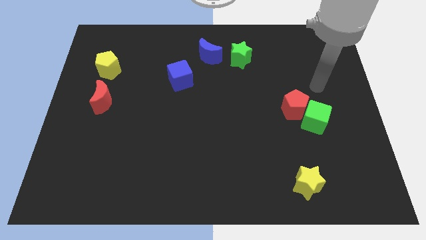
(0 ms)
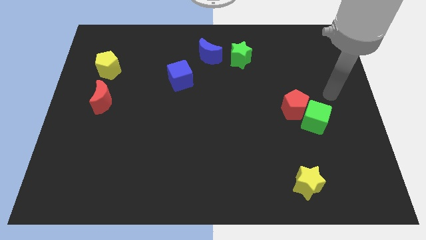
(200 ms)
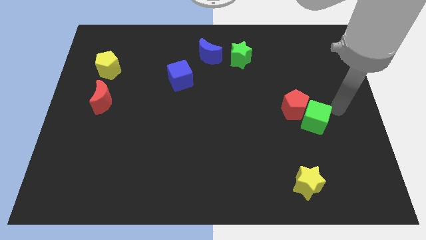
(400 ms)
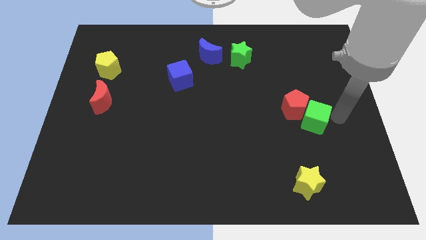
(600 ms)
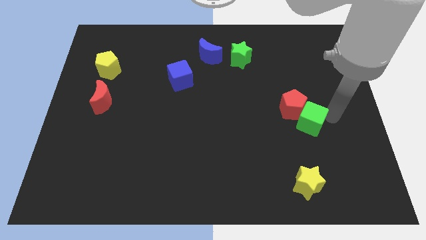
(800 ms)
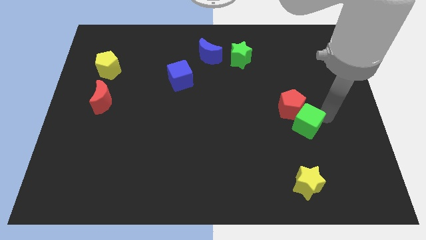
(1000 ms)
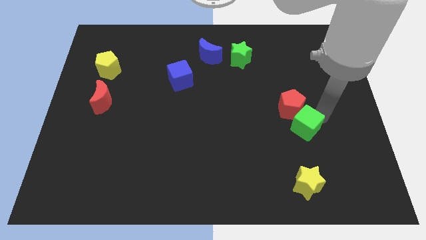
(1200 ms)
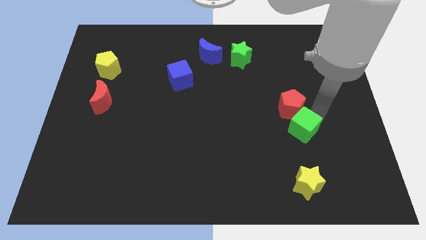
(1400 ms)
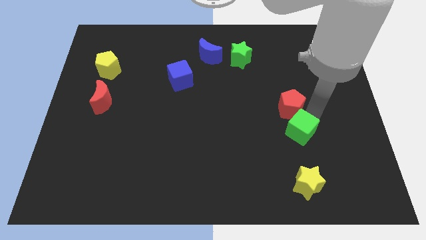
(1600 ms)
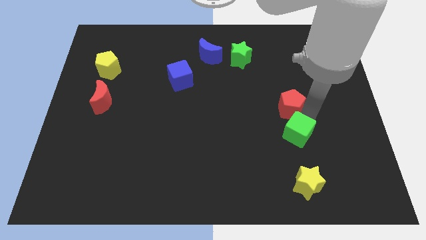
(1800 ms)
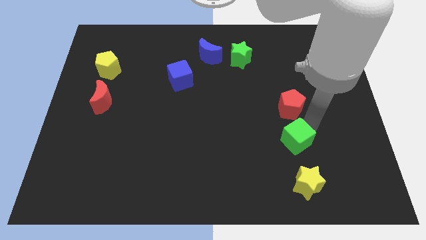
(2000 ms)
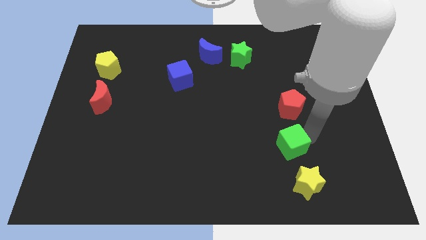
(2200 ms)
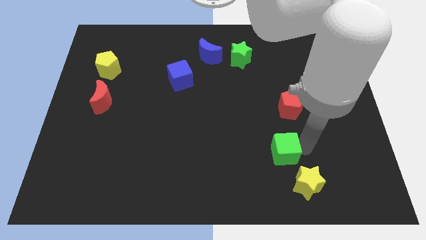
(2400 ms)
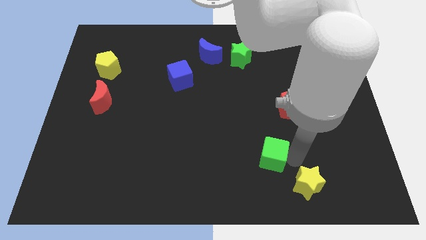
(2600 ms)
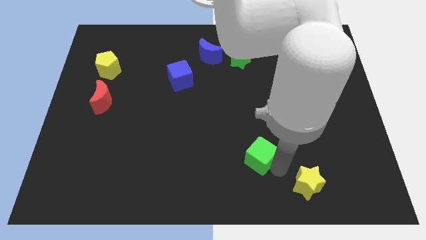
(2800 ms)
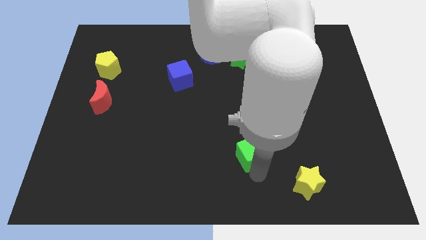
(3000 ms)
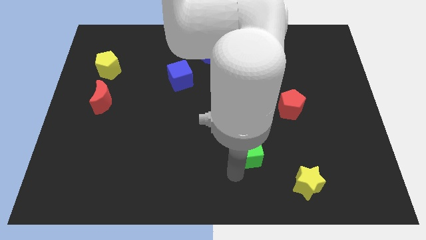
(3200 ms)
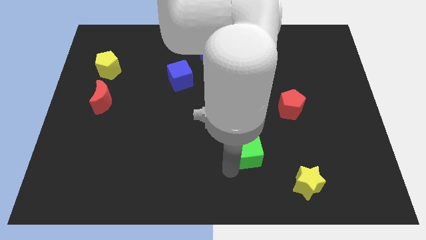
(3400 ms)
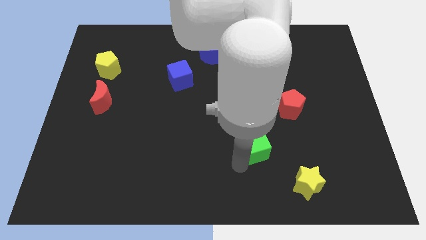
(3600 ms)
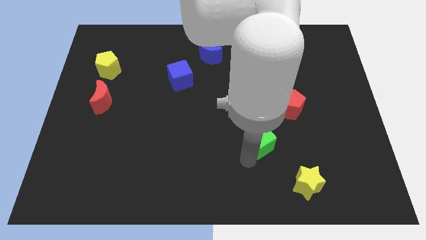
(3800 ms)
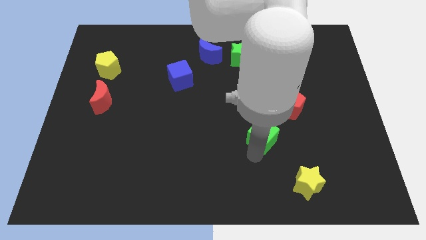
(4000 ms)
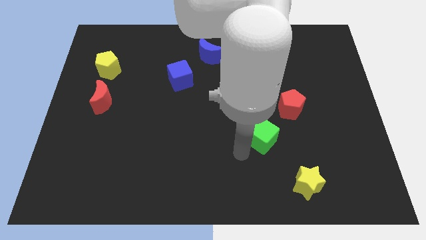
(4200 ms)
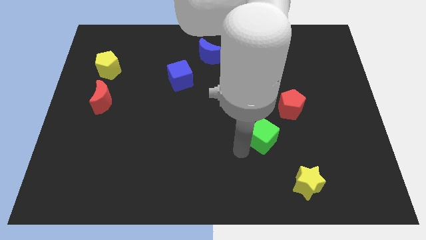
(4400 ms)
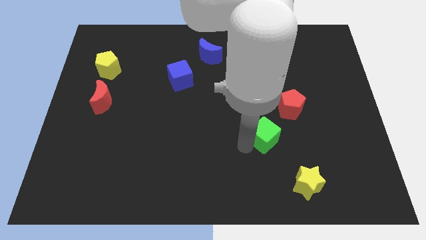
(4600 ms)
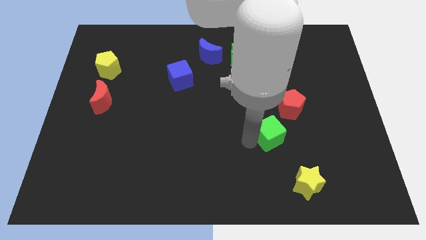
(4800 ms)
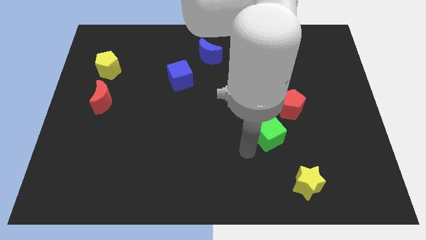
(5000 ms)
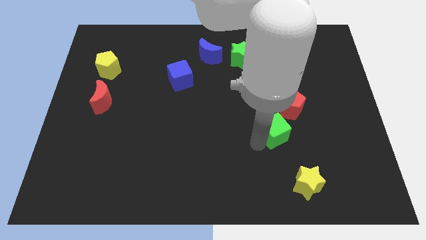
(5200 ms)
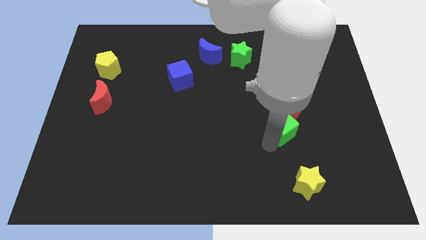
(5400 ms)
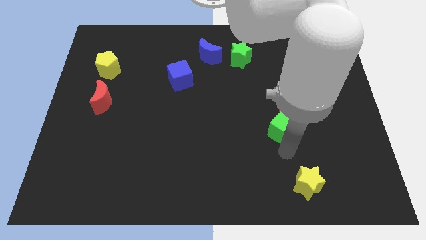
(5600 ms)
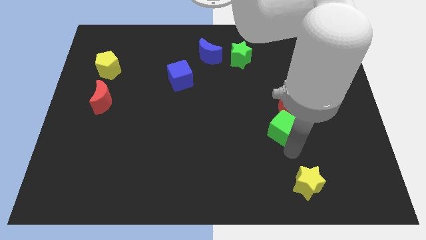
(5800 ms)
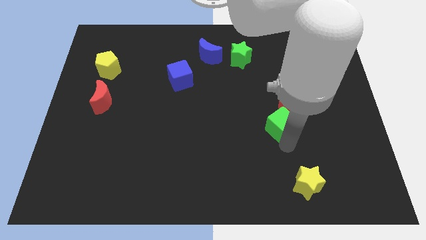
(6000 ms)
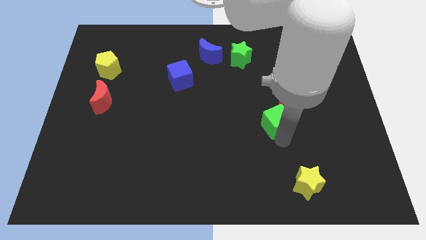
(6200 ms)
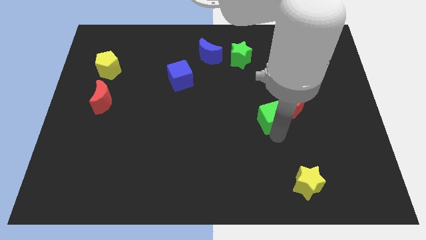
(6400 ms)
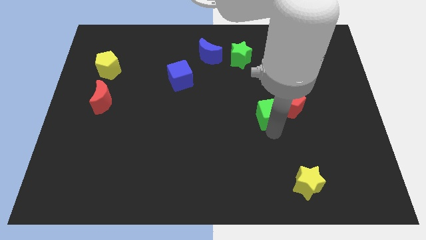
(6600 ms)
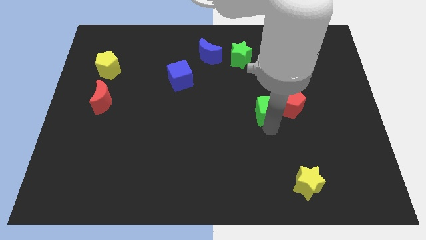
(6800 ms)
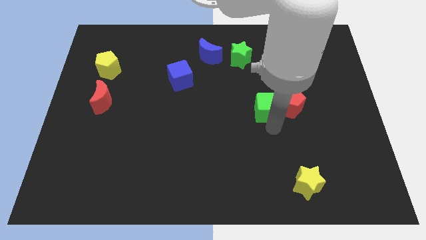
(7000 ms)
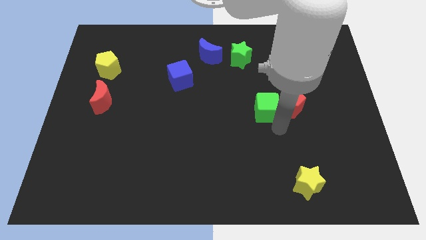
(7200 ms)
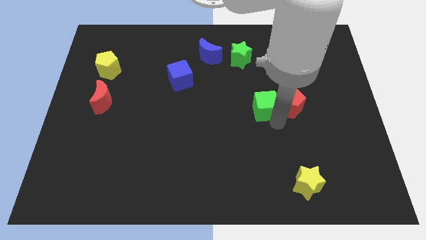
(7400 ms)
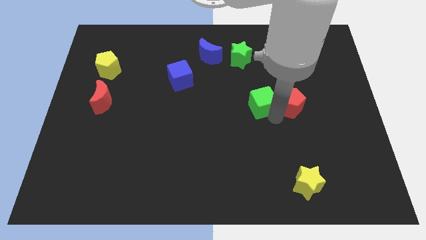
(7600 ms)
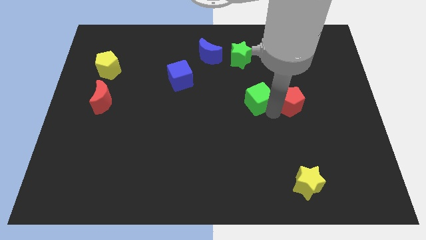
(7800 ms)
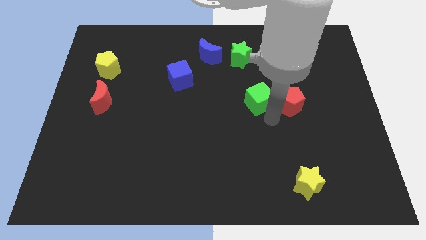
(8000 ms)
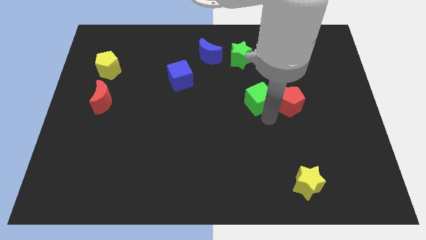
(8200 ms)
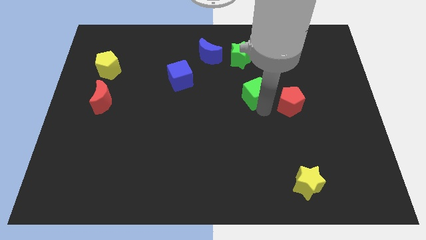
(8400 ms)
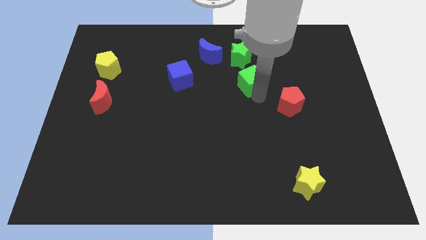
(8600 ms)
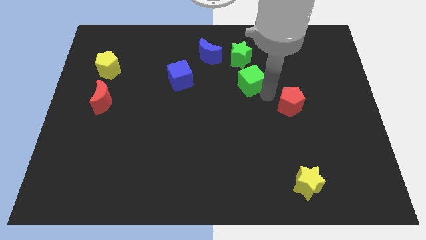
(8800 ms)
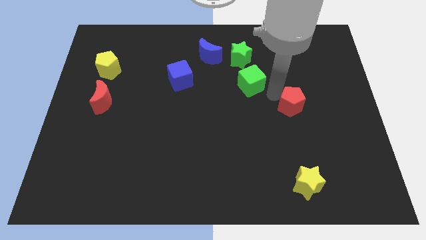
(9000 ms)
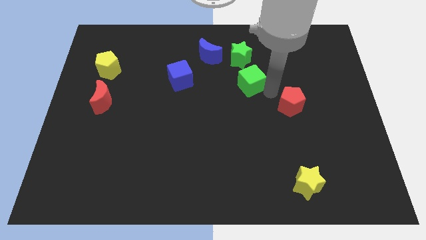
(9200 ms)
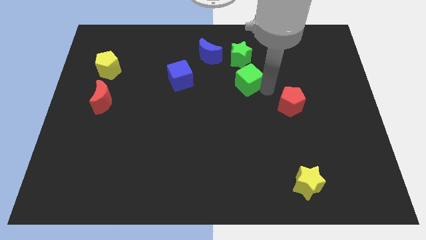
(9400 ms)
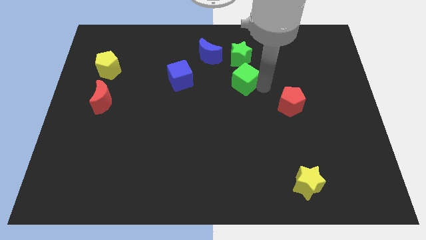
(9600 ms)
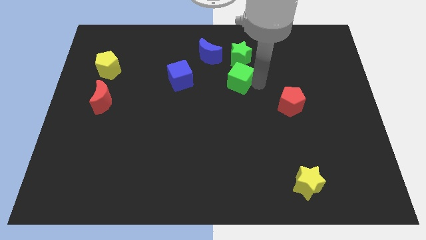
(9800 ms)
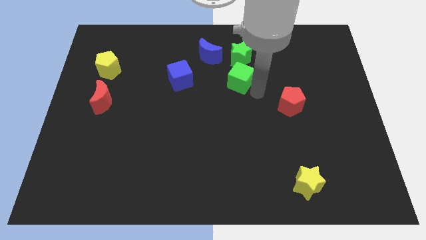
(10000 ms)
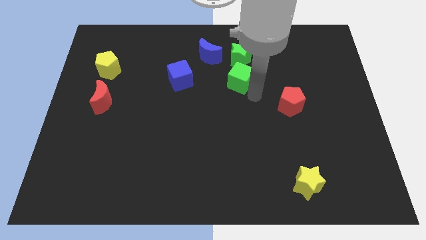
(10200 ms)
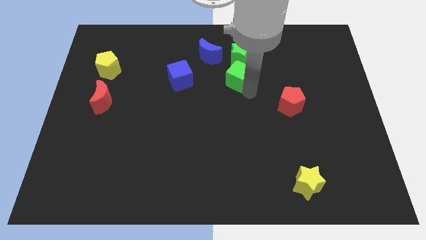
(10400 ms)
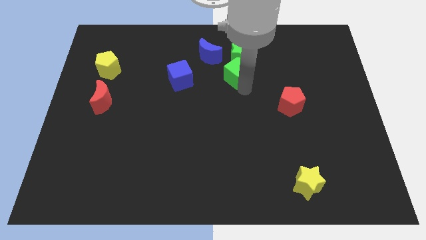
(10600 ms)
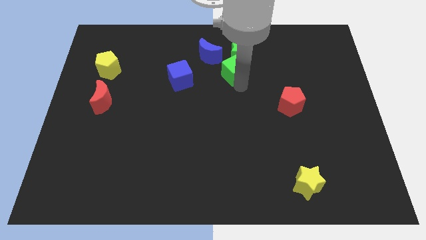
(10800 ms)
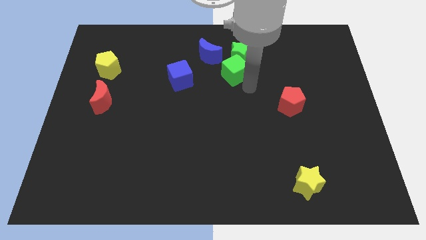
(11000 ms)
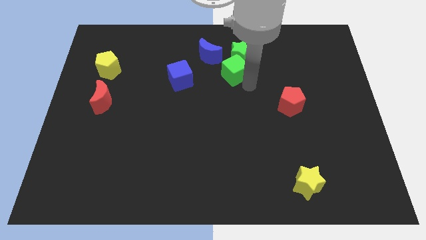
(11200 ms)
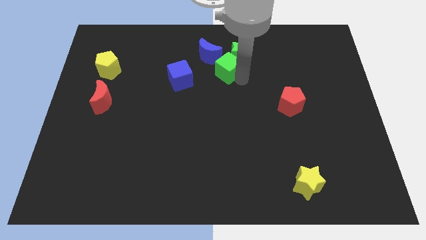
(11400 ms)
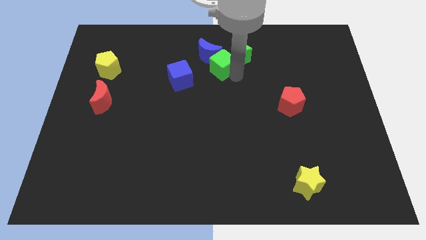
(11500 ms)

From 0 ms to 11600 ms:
put the green cube towards the blue moon

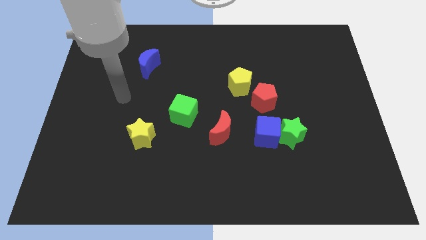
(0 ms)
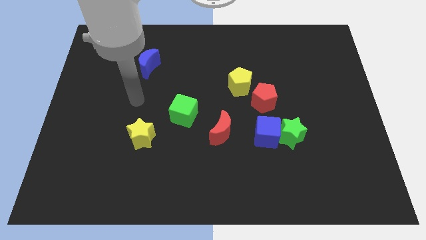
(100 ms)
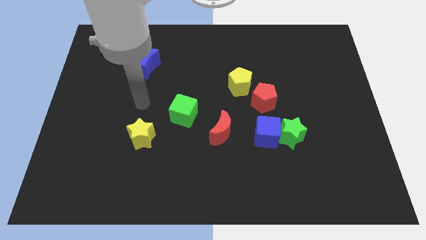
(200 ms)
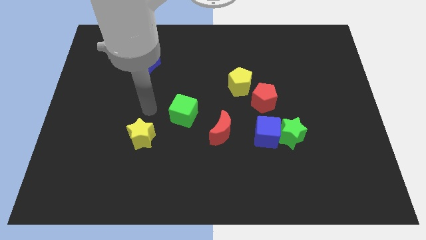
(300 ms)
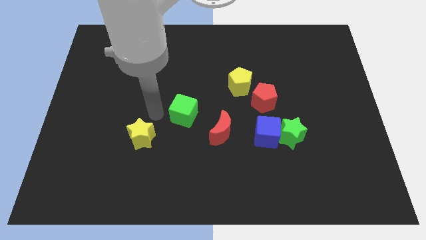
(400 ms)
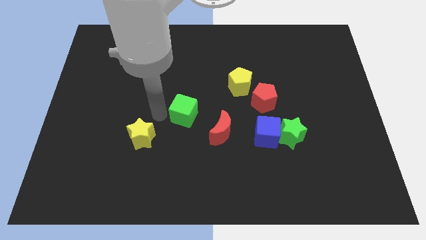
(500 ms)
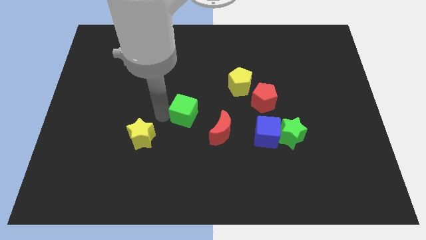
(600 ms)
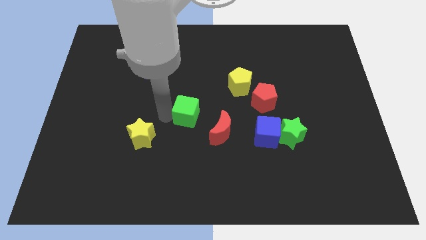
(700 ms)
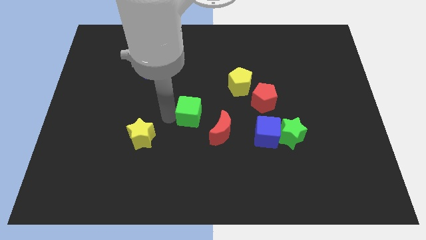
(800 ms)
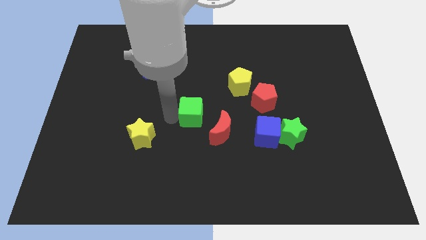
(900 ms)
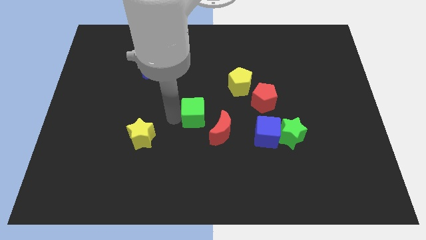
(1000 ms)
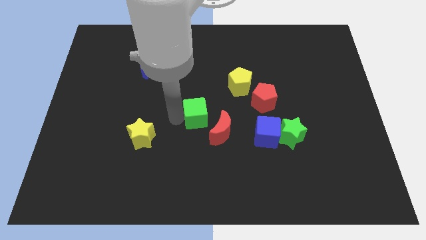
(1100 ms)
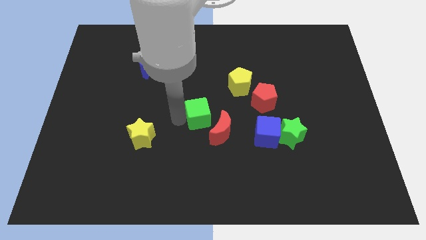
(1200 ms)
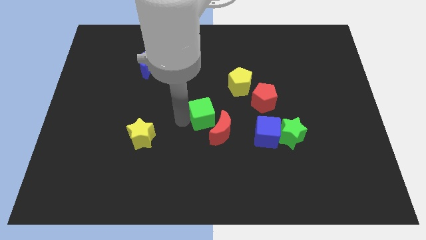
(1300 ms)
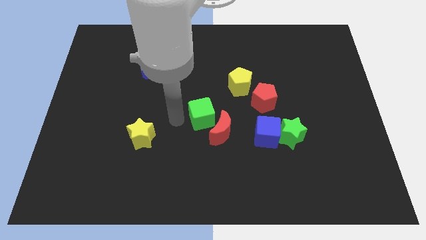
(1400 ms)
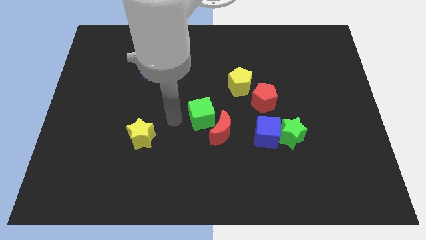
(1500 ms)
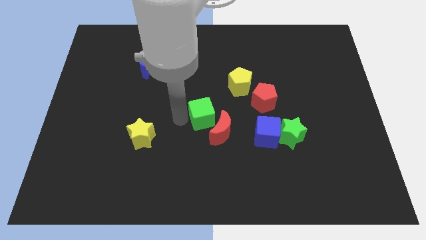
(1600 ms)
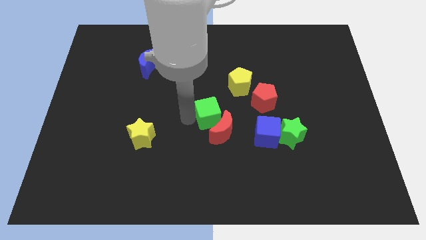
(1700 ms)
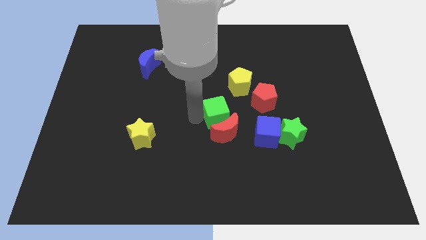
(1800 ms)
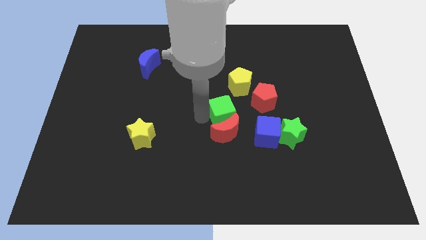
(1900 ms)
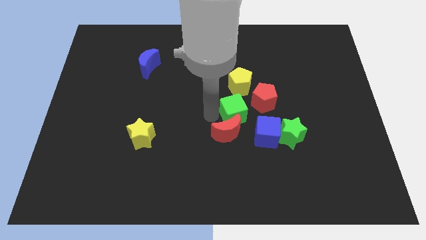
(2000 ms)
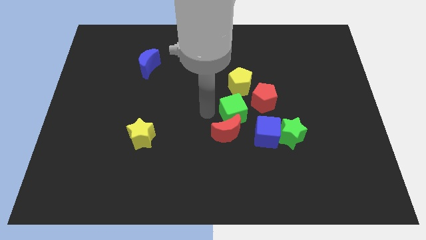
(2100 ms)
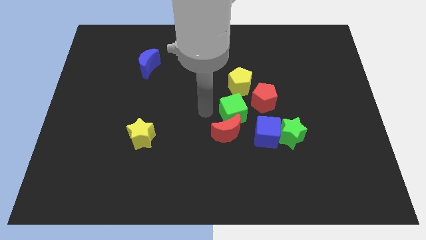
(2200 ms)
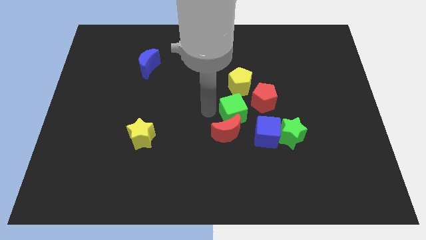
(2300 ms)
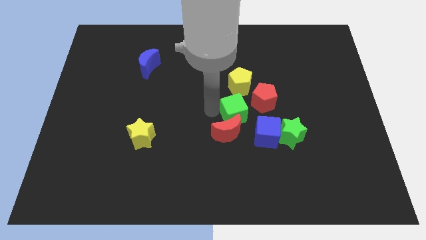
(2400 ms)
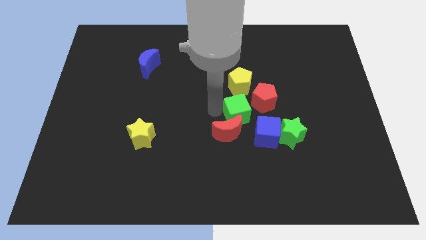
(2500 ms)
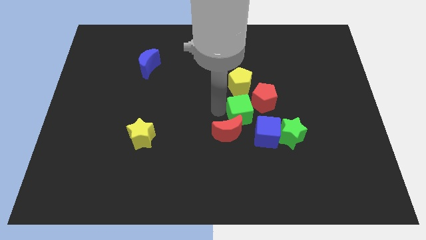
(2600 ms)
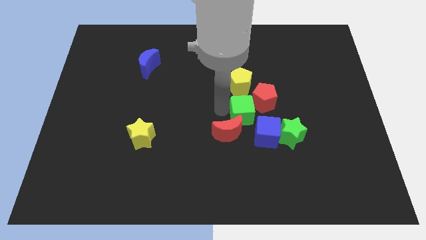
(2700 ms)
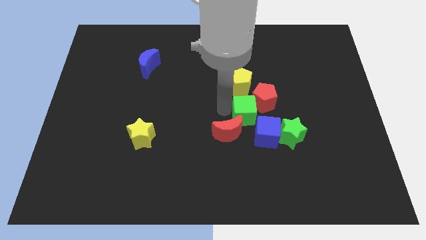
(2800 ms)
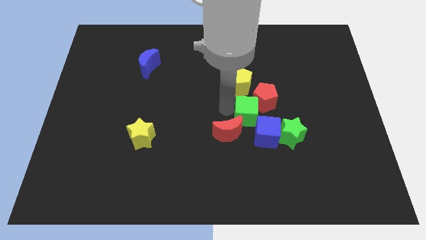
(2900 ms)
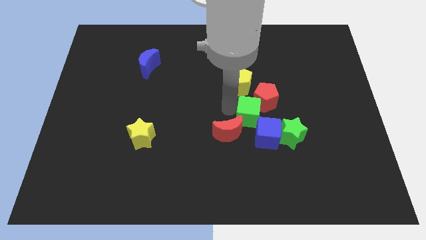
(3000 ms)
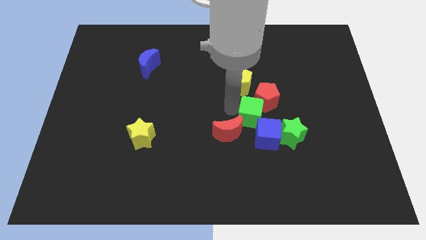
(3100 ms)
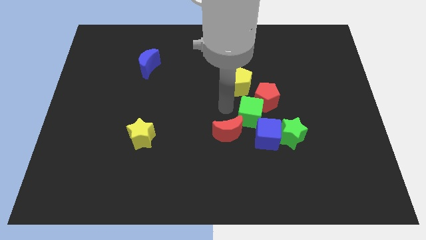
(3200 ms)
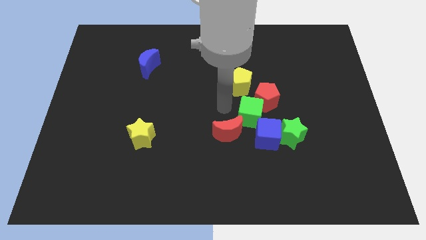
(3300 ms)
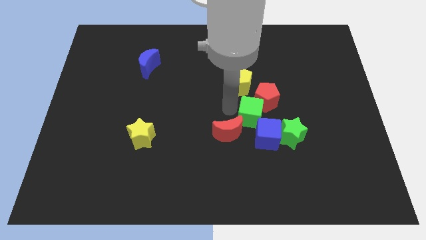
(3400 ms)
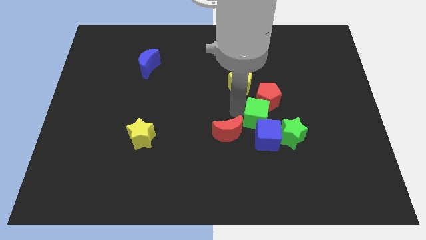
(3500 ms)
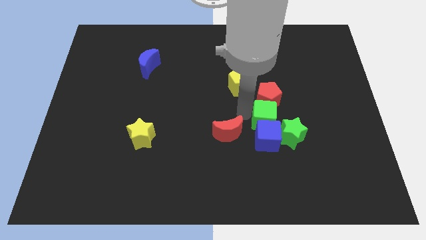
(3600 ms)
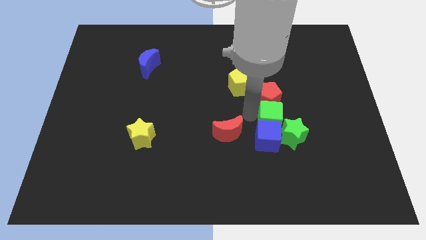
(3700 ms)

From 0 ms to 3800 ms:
put the green cube close to the green star
